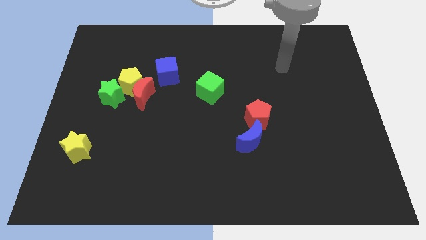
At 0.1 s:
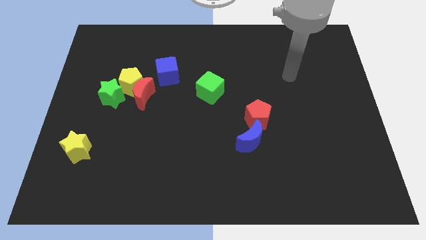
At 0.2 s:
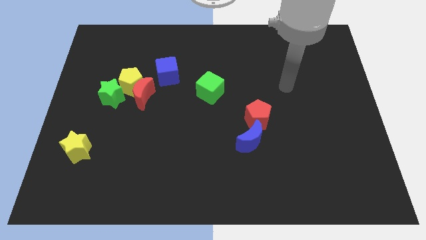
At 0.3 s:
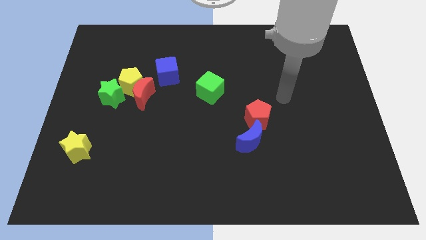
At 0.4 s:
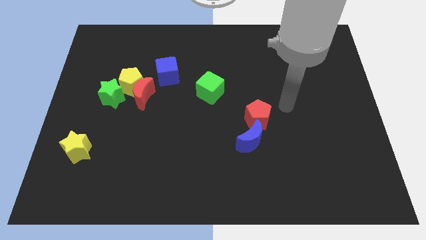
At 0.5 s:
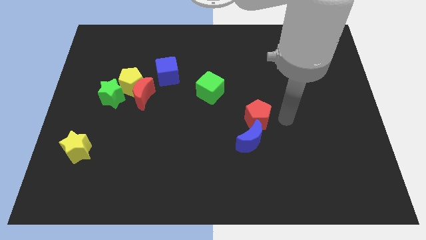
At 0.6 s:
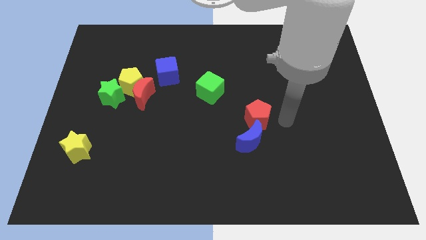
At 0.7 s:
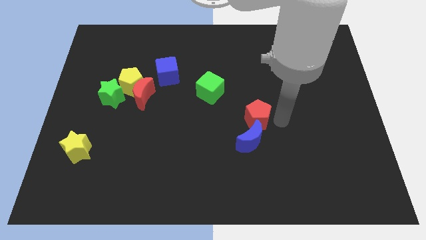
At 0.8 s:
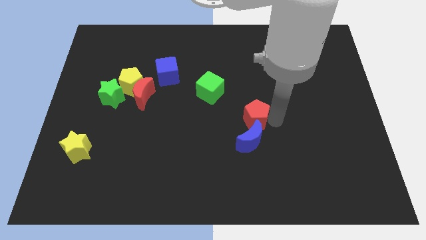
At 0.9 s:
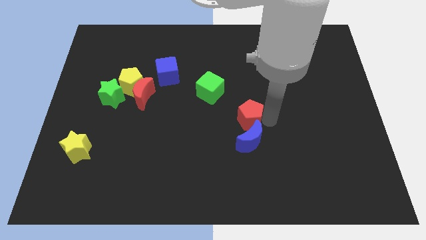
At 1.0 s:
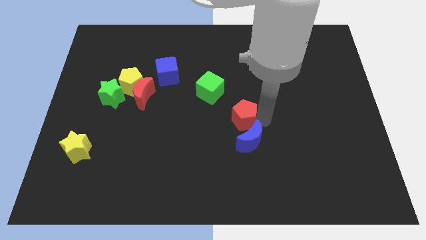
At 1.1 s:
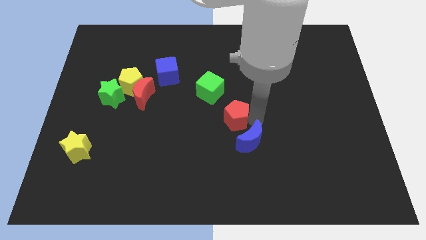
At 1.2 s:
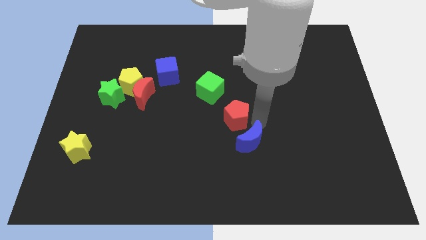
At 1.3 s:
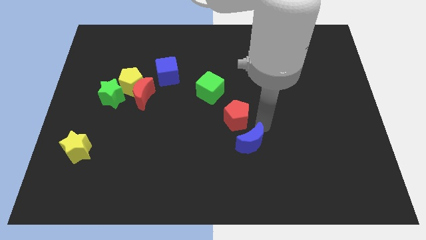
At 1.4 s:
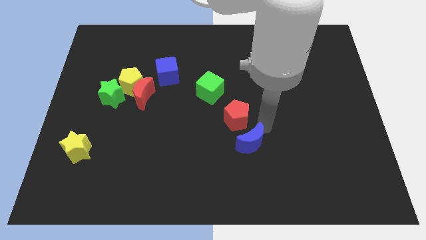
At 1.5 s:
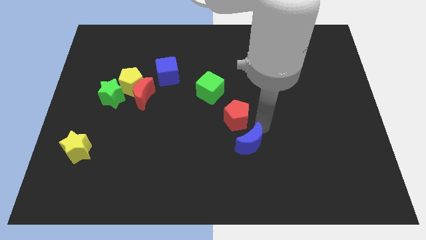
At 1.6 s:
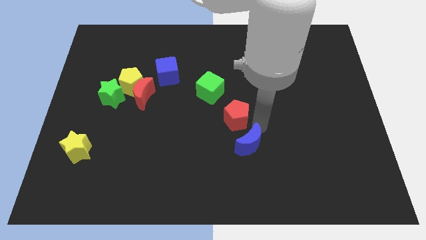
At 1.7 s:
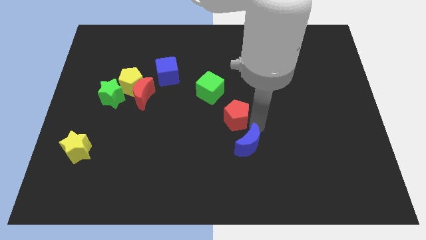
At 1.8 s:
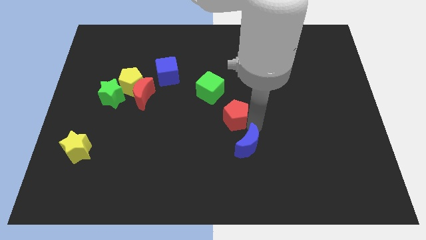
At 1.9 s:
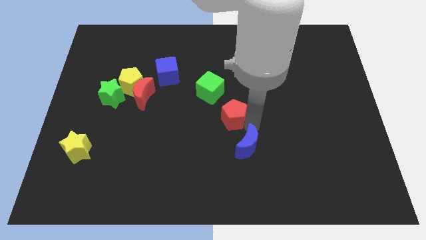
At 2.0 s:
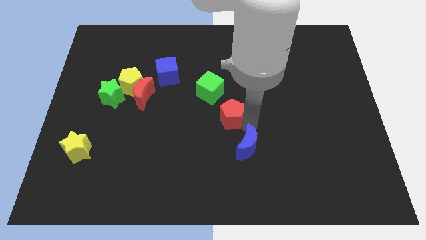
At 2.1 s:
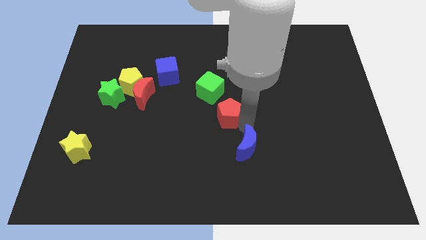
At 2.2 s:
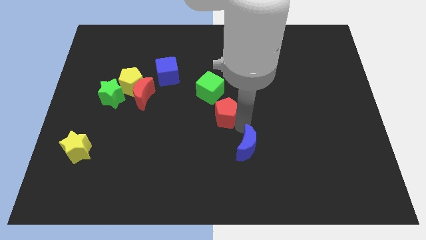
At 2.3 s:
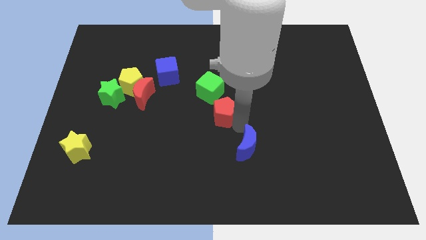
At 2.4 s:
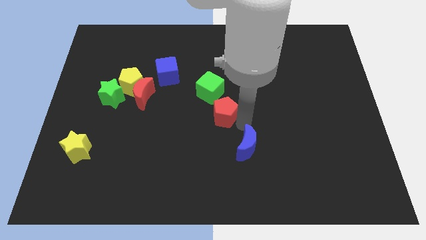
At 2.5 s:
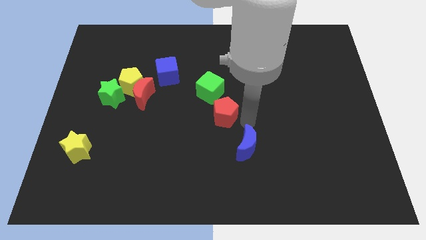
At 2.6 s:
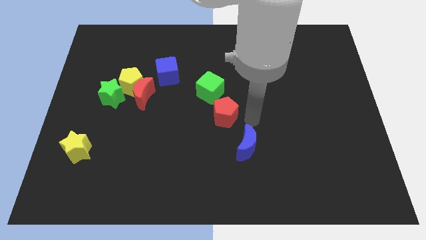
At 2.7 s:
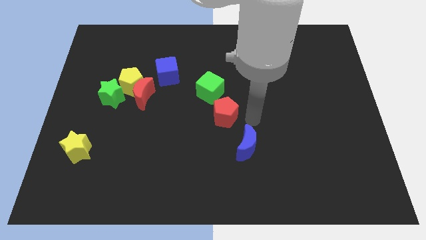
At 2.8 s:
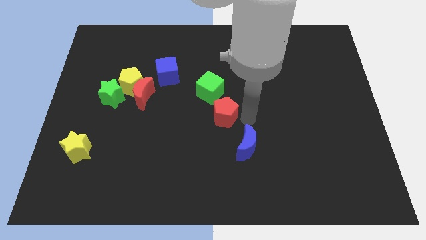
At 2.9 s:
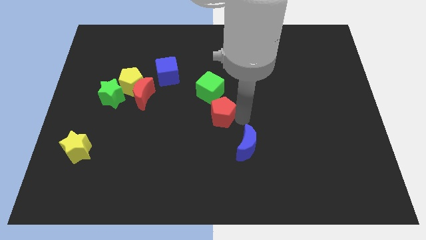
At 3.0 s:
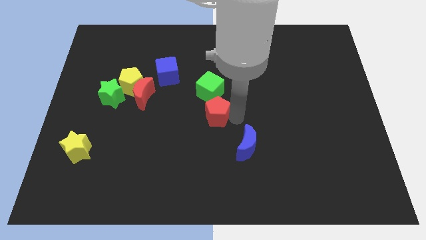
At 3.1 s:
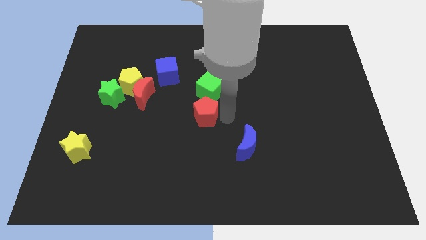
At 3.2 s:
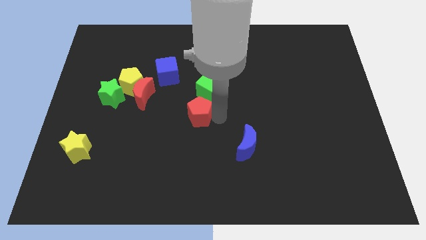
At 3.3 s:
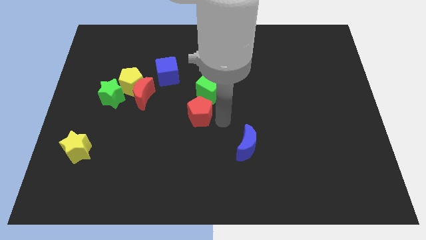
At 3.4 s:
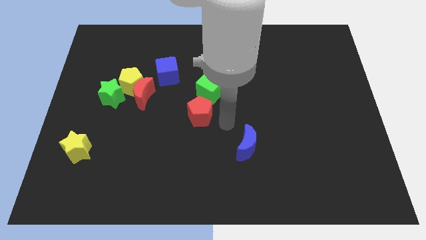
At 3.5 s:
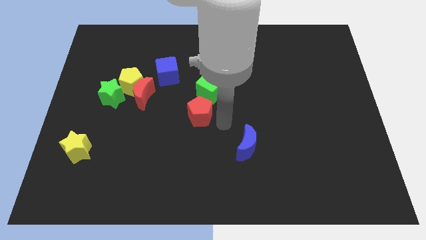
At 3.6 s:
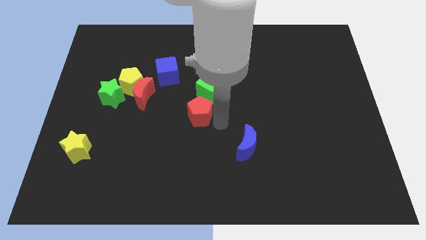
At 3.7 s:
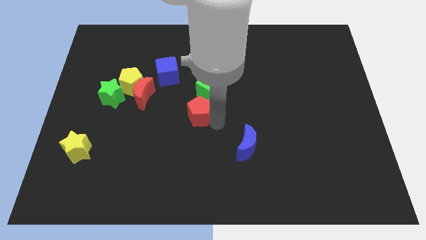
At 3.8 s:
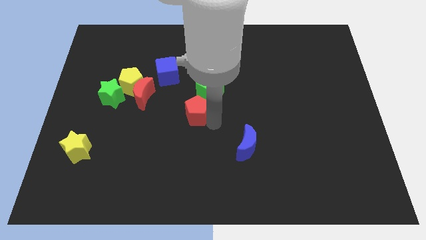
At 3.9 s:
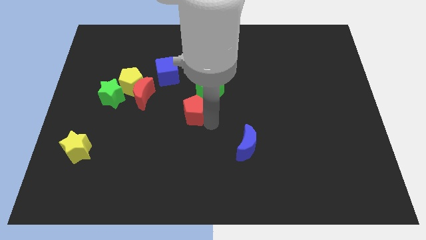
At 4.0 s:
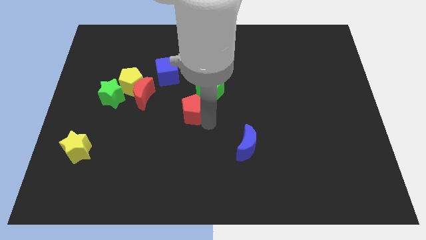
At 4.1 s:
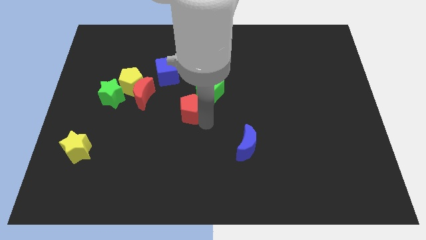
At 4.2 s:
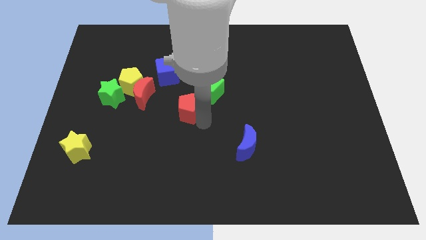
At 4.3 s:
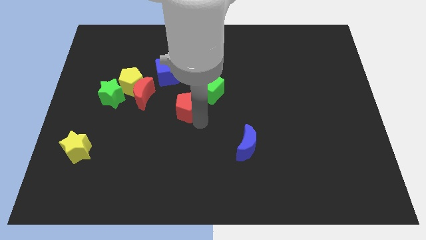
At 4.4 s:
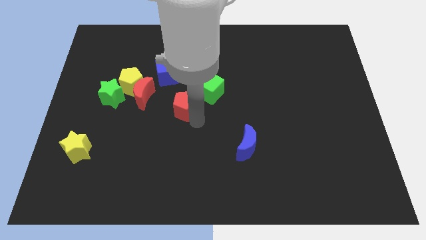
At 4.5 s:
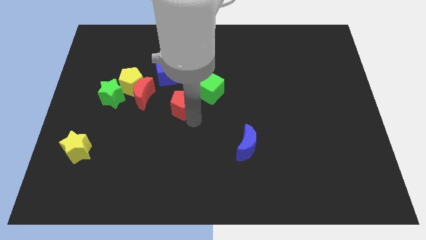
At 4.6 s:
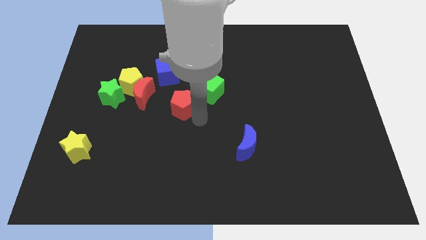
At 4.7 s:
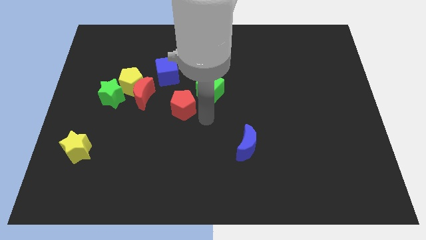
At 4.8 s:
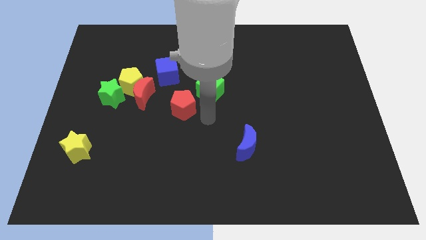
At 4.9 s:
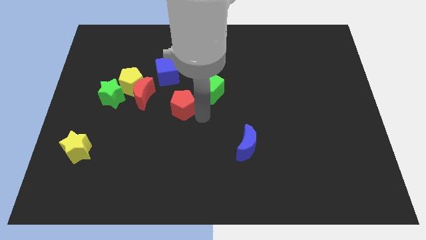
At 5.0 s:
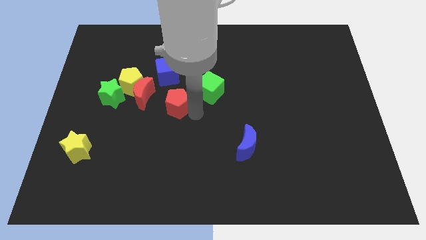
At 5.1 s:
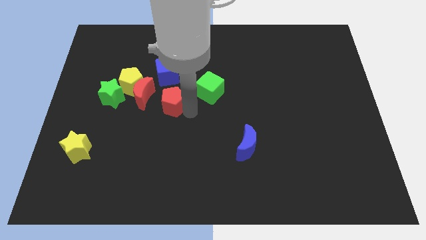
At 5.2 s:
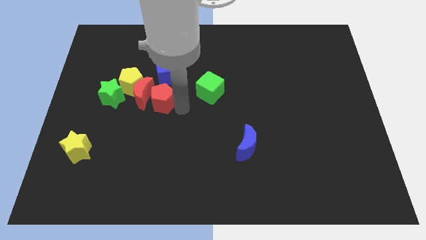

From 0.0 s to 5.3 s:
push the red pentagon next to the red moon

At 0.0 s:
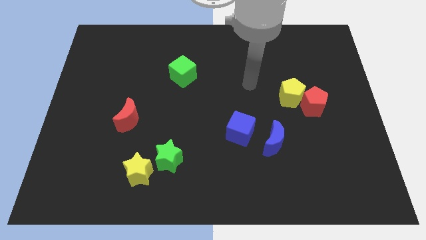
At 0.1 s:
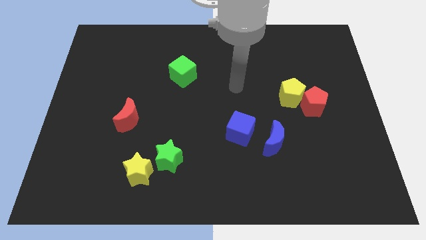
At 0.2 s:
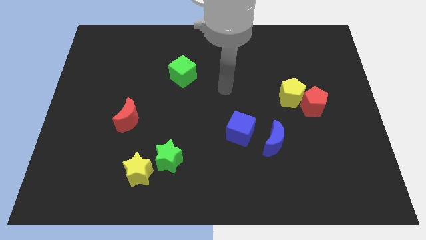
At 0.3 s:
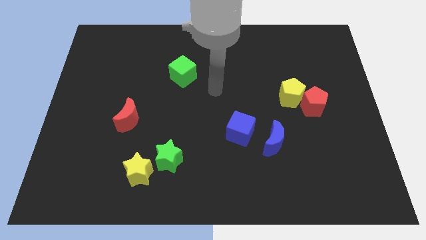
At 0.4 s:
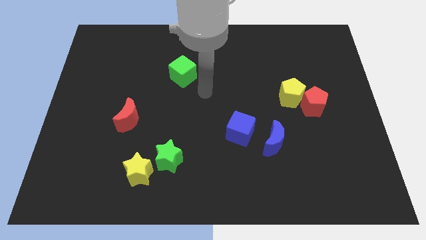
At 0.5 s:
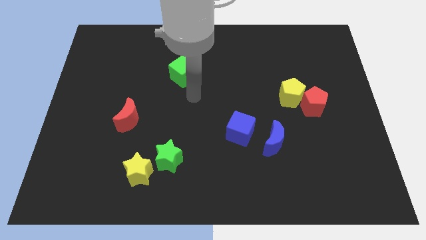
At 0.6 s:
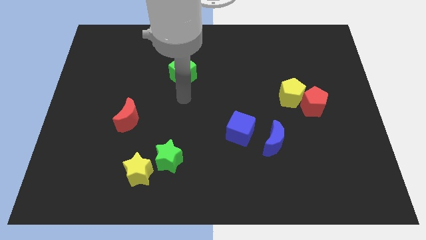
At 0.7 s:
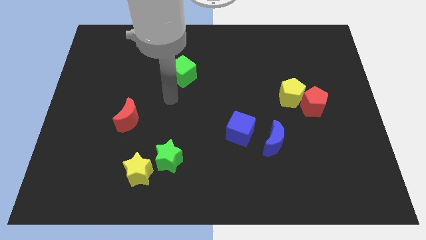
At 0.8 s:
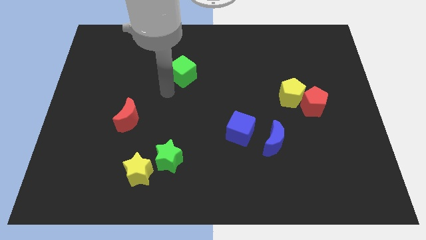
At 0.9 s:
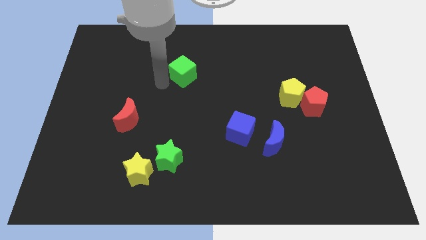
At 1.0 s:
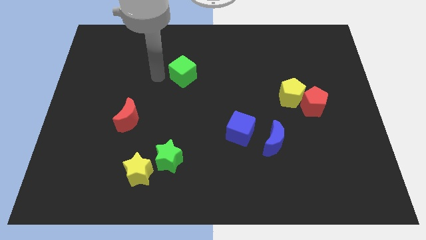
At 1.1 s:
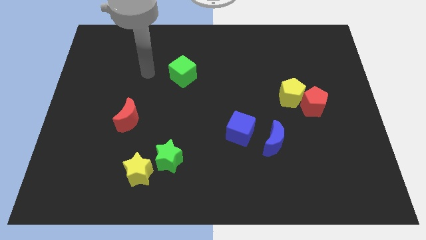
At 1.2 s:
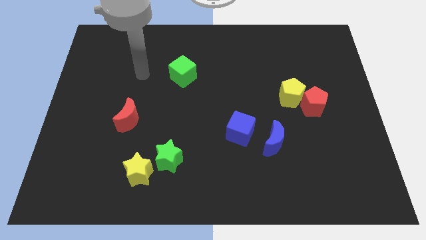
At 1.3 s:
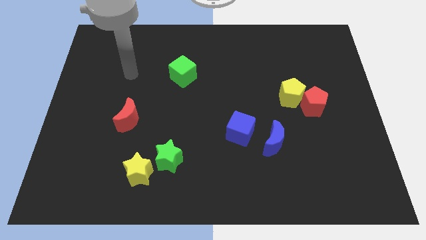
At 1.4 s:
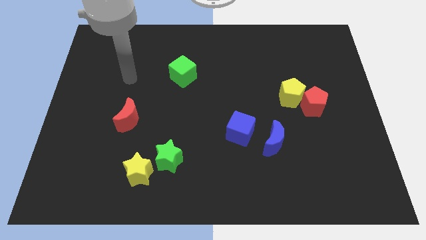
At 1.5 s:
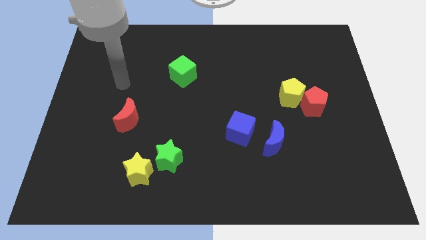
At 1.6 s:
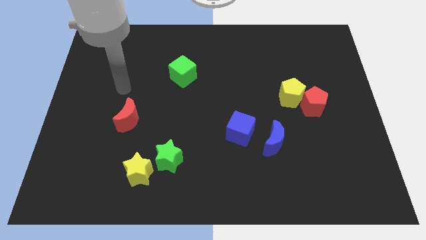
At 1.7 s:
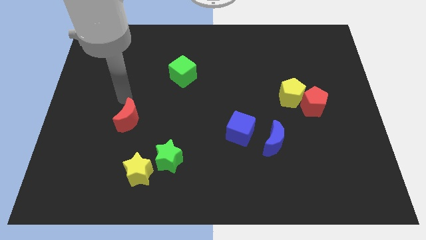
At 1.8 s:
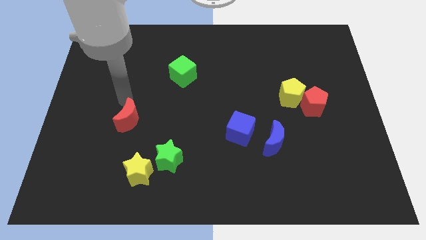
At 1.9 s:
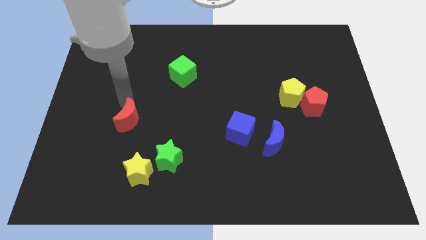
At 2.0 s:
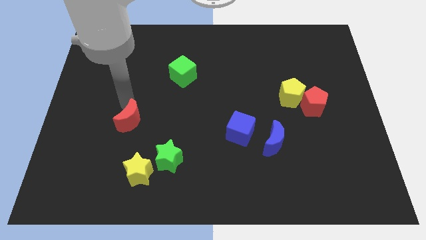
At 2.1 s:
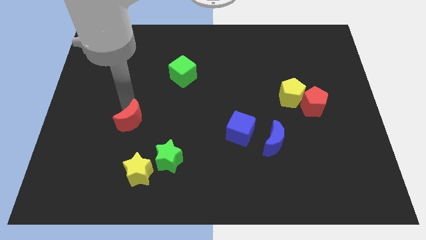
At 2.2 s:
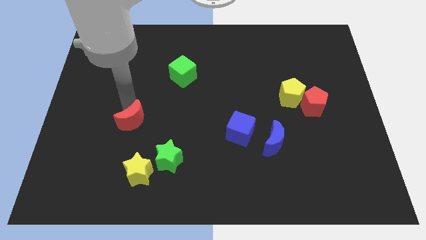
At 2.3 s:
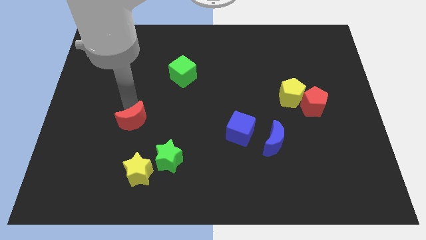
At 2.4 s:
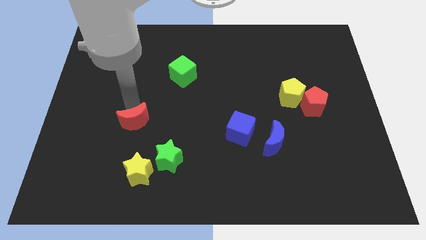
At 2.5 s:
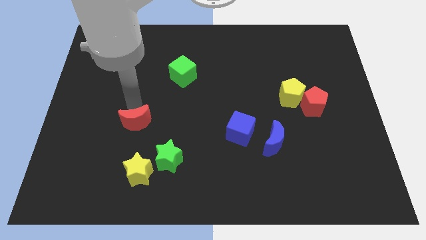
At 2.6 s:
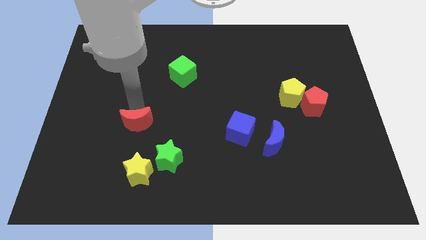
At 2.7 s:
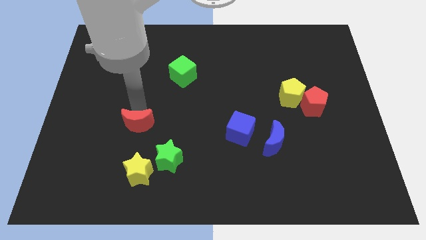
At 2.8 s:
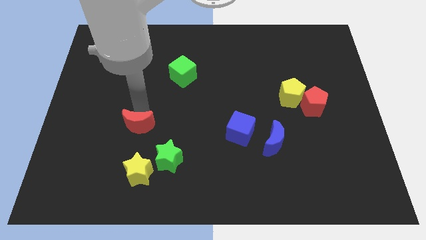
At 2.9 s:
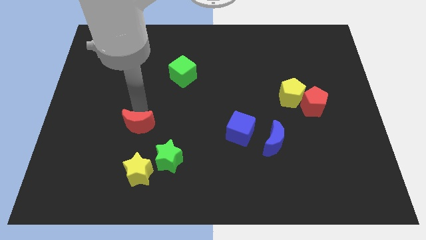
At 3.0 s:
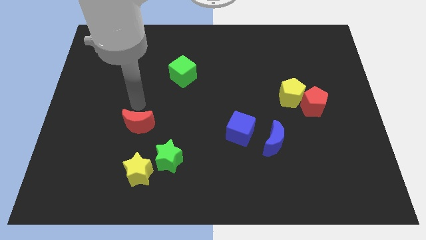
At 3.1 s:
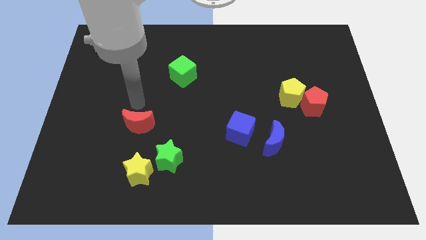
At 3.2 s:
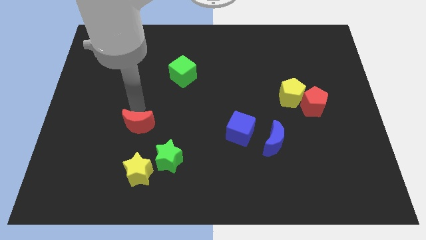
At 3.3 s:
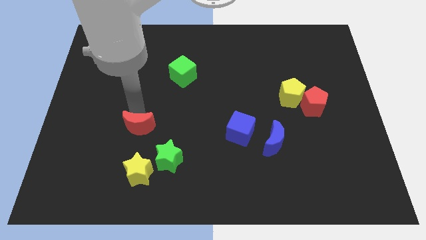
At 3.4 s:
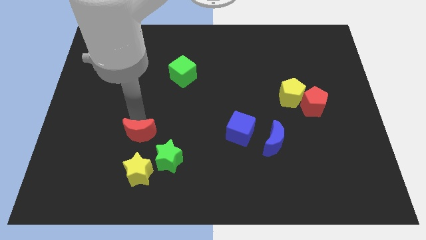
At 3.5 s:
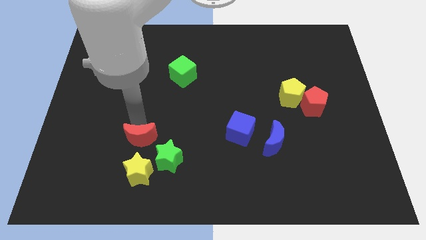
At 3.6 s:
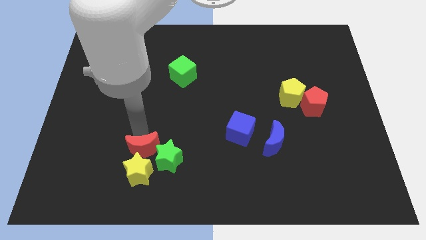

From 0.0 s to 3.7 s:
put the red moon towards the yellow star
